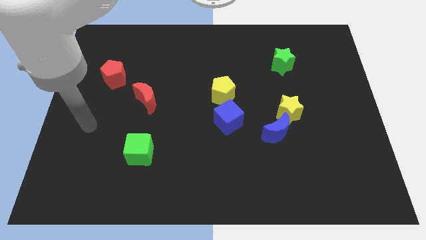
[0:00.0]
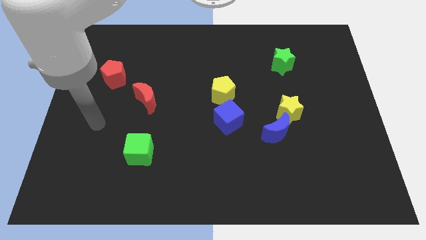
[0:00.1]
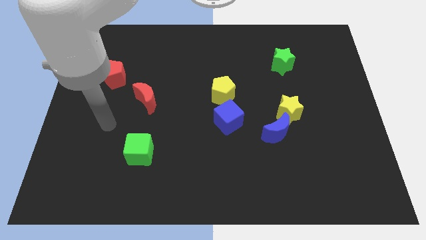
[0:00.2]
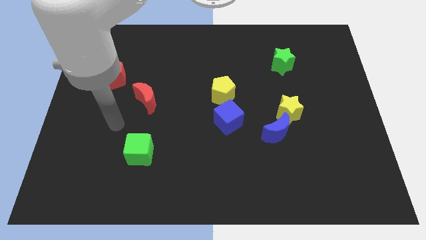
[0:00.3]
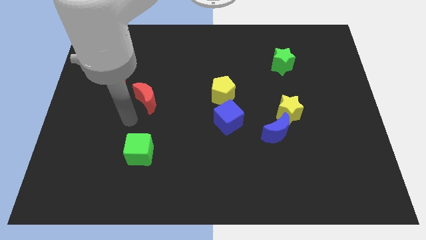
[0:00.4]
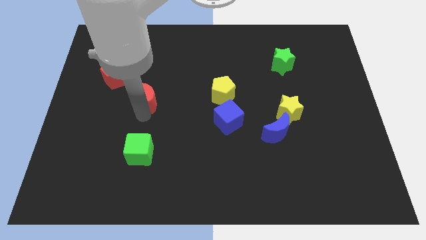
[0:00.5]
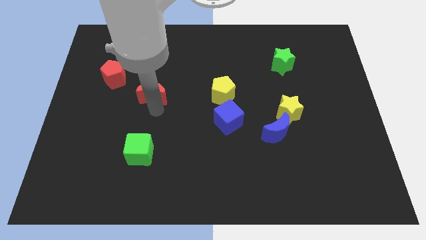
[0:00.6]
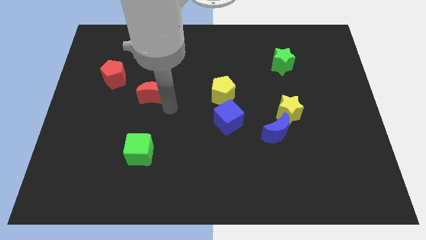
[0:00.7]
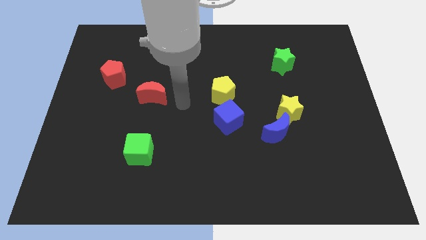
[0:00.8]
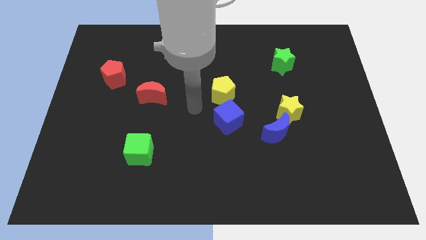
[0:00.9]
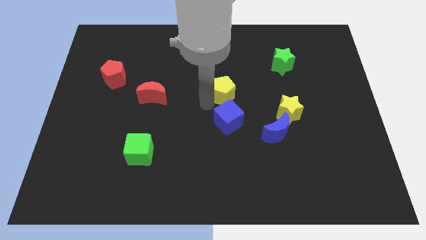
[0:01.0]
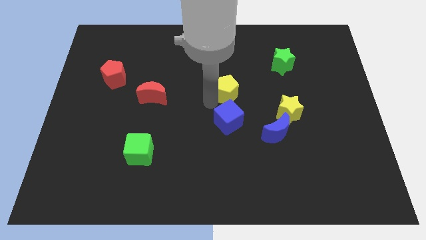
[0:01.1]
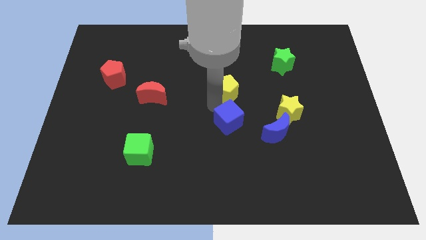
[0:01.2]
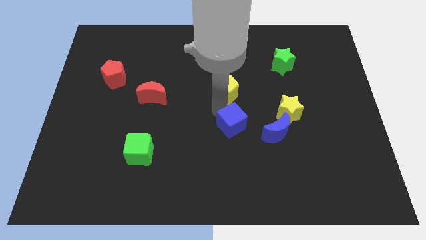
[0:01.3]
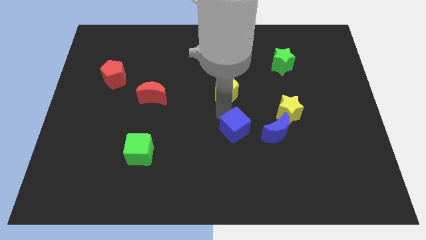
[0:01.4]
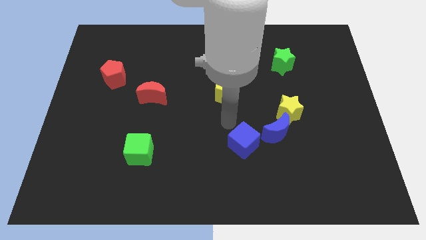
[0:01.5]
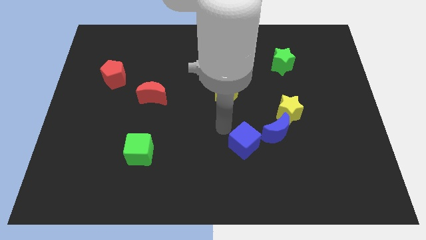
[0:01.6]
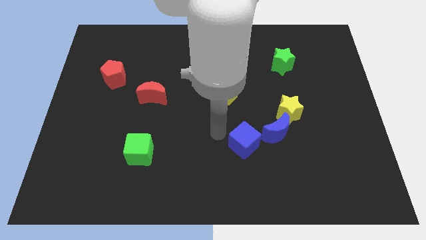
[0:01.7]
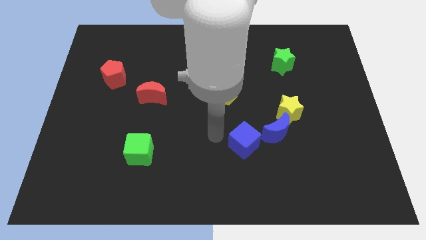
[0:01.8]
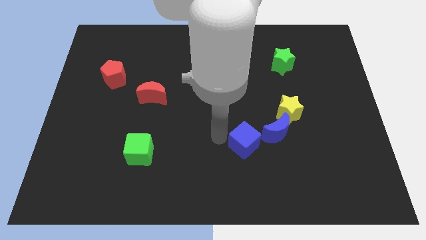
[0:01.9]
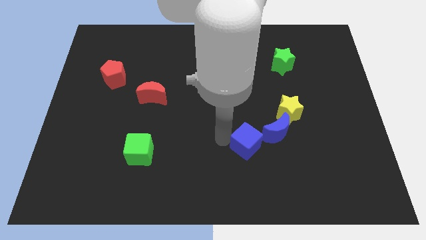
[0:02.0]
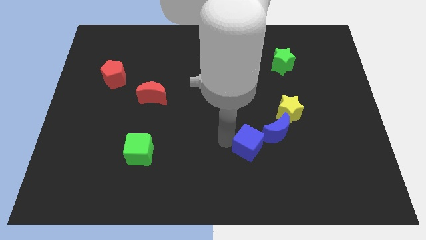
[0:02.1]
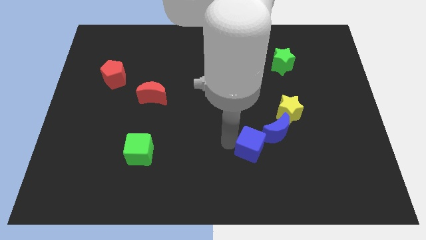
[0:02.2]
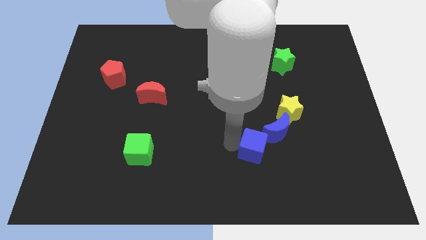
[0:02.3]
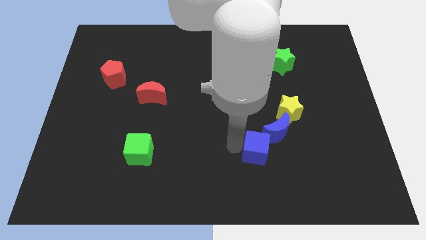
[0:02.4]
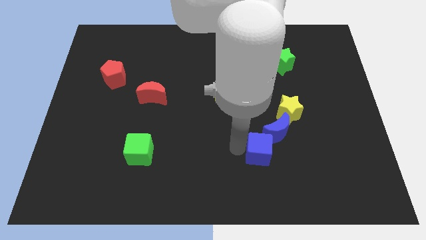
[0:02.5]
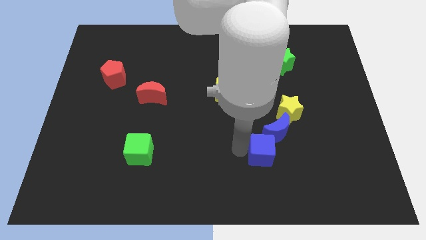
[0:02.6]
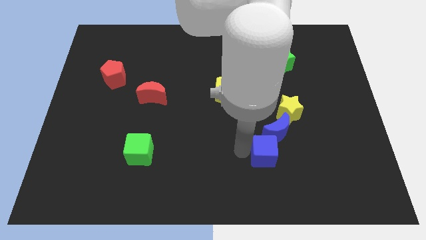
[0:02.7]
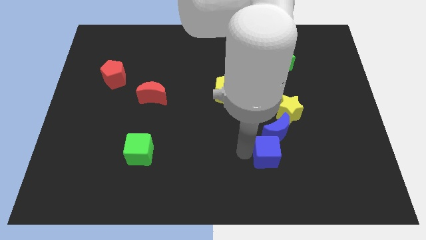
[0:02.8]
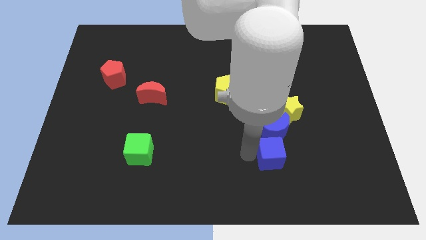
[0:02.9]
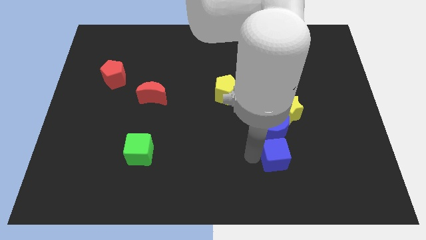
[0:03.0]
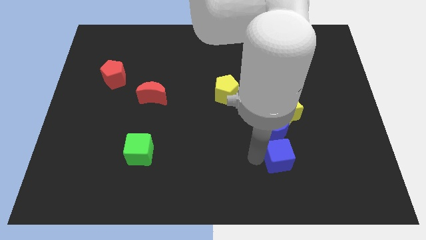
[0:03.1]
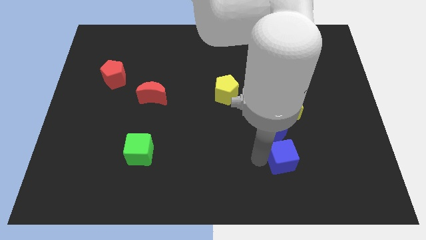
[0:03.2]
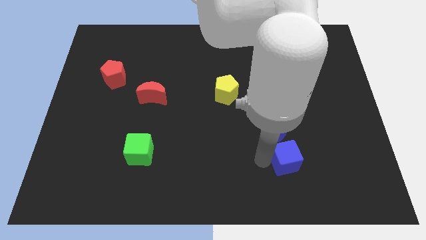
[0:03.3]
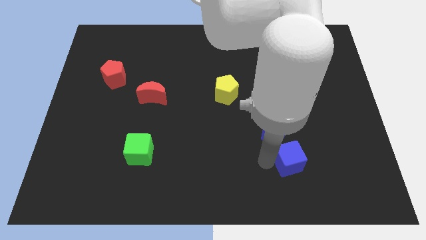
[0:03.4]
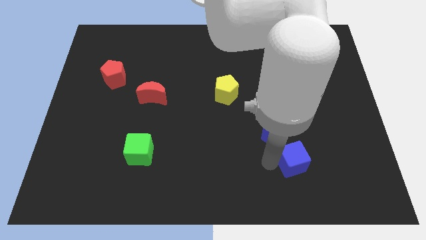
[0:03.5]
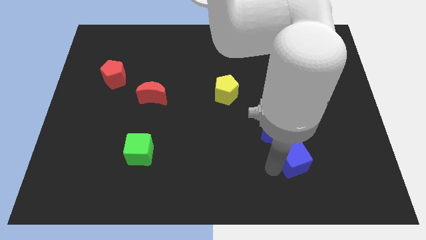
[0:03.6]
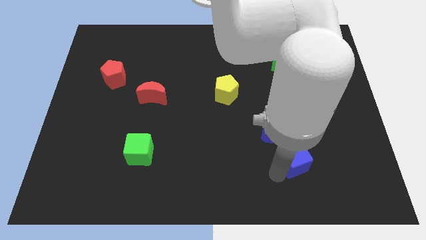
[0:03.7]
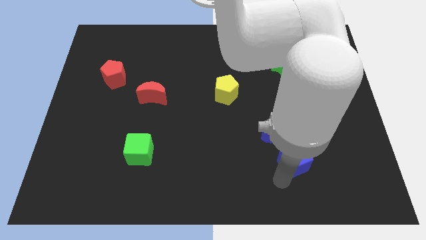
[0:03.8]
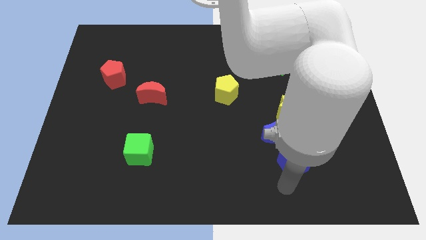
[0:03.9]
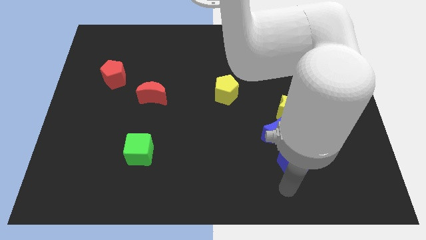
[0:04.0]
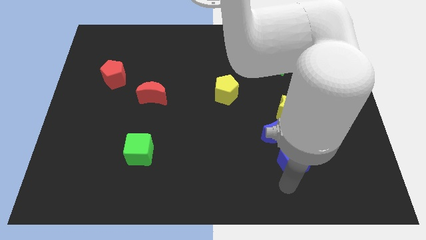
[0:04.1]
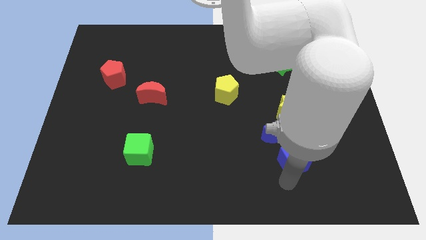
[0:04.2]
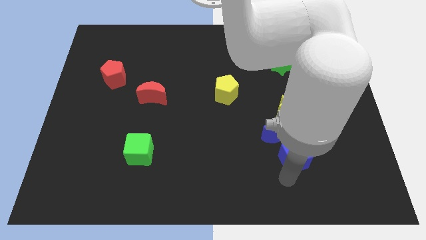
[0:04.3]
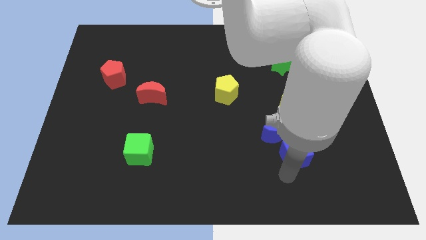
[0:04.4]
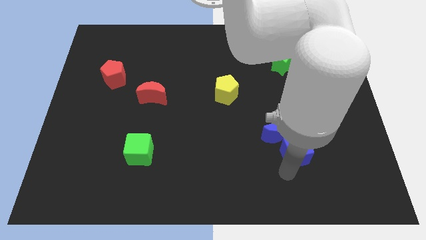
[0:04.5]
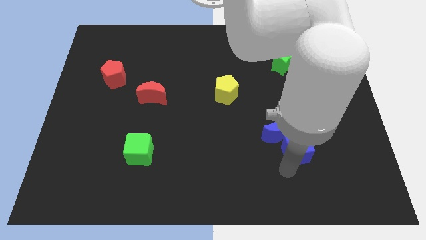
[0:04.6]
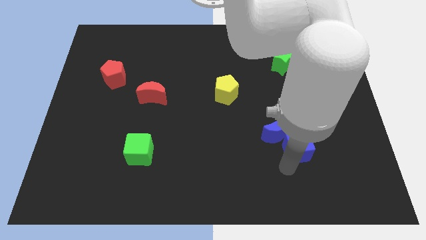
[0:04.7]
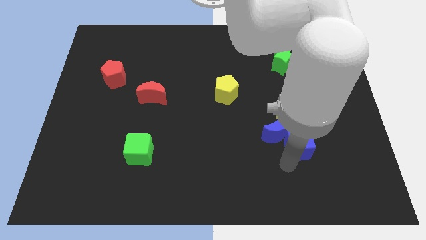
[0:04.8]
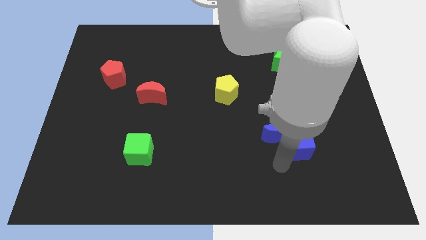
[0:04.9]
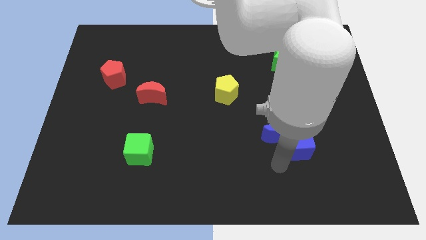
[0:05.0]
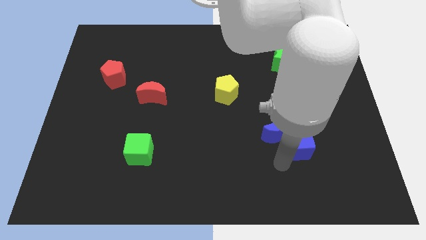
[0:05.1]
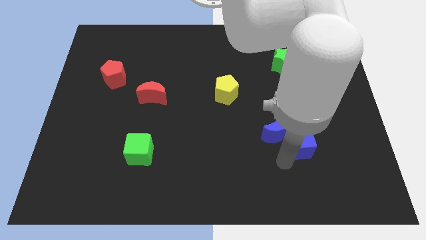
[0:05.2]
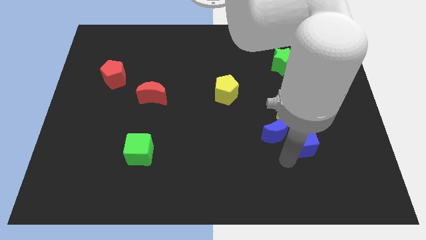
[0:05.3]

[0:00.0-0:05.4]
put the blue cube to the bottom right of the yellow star
